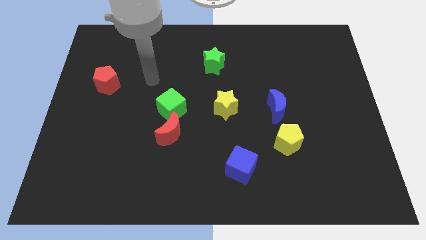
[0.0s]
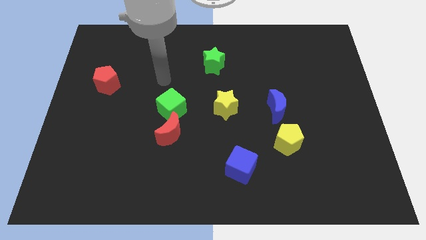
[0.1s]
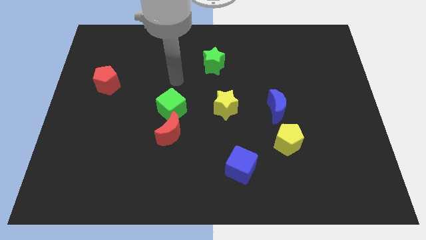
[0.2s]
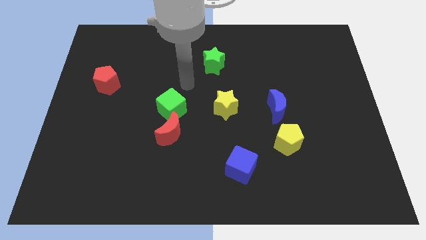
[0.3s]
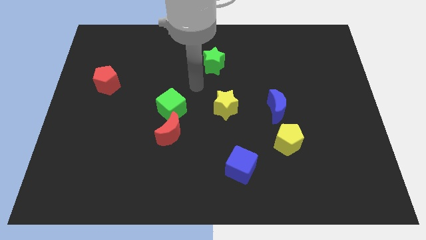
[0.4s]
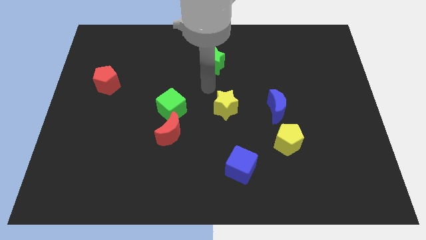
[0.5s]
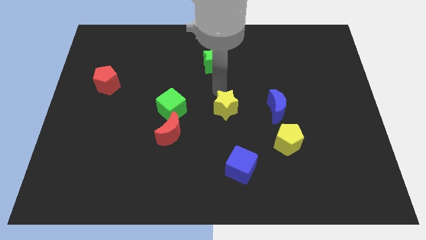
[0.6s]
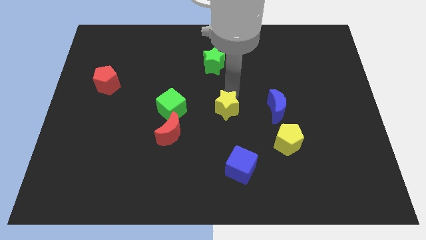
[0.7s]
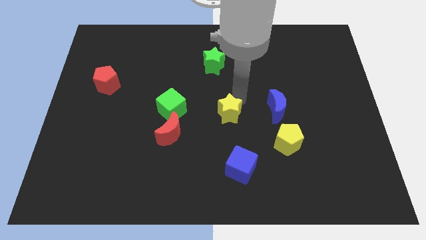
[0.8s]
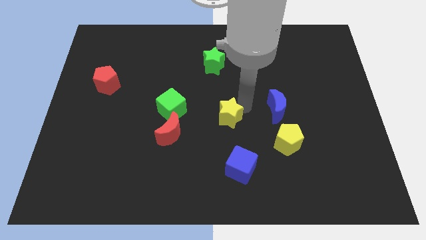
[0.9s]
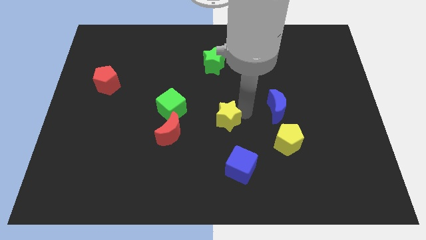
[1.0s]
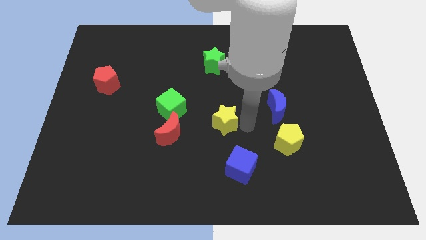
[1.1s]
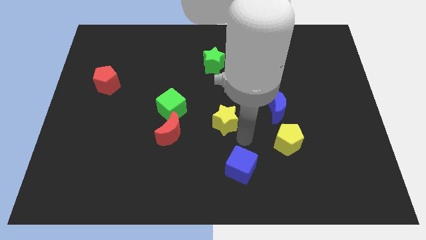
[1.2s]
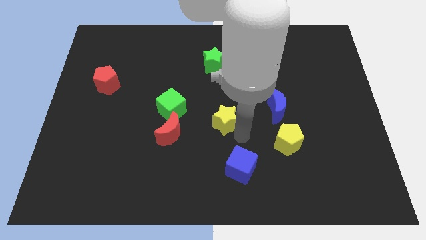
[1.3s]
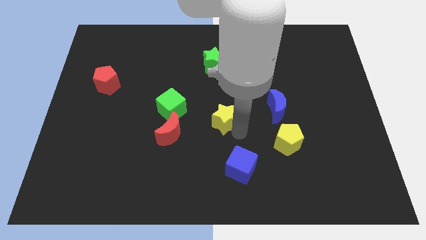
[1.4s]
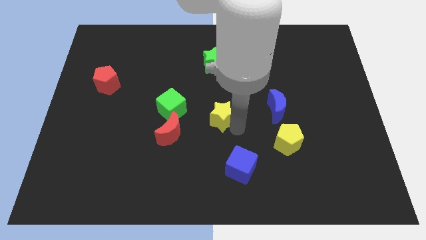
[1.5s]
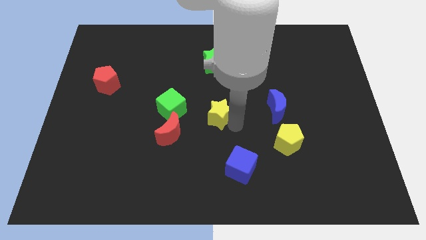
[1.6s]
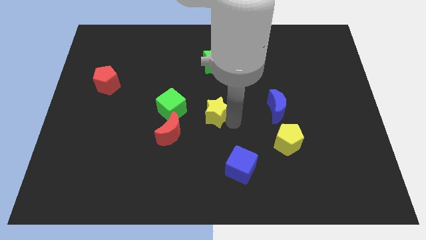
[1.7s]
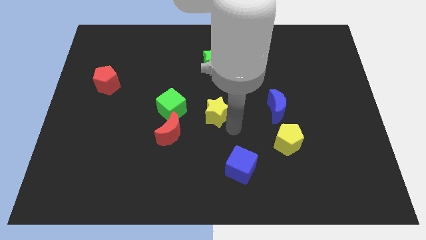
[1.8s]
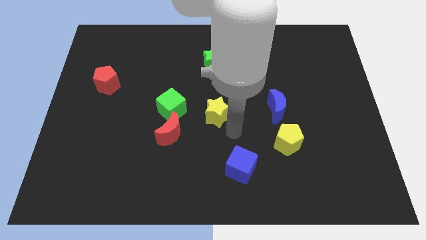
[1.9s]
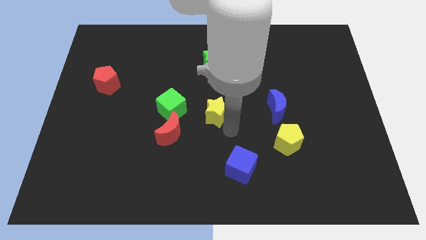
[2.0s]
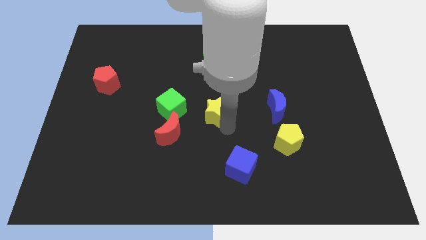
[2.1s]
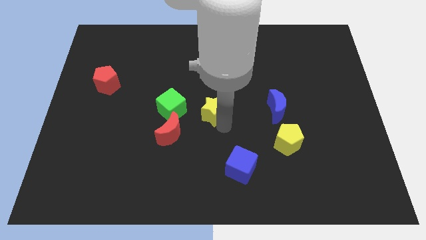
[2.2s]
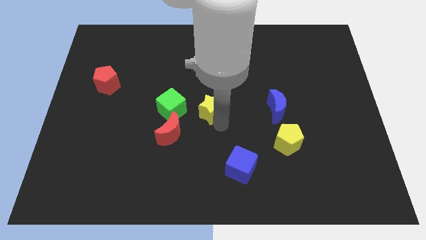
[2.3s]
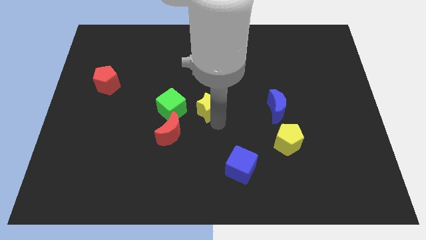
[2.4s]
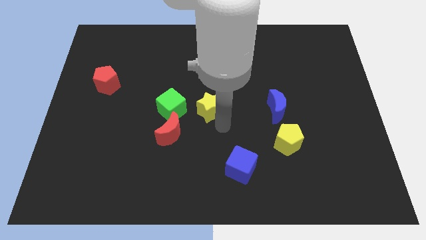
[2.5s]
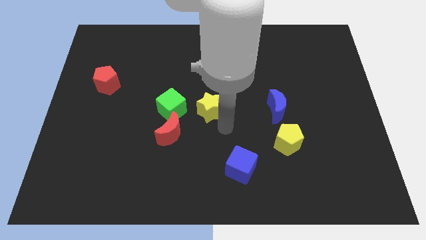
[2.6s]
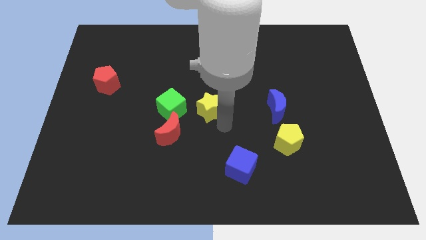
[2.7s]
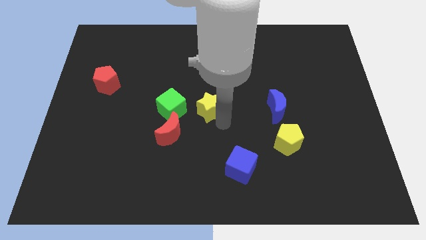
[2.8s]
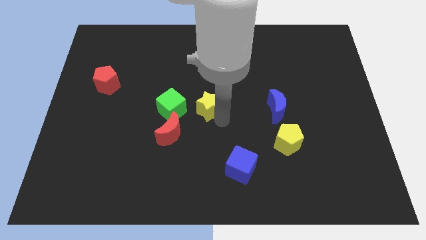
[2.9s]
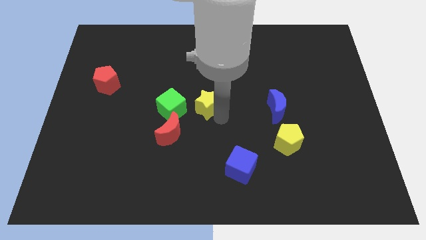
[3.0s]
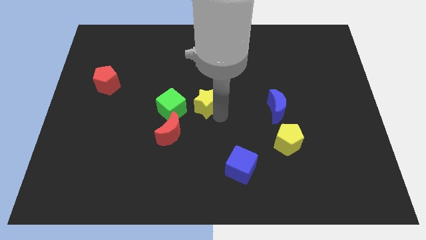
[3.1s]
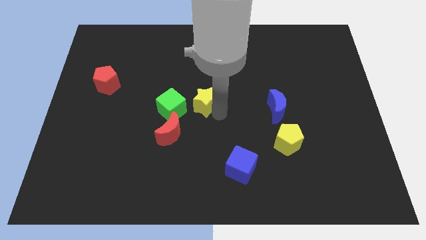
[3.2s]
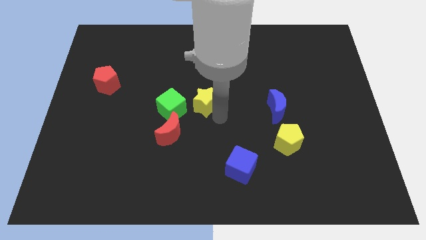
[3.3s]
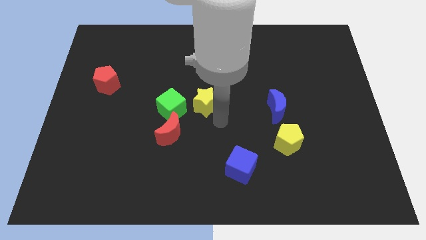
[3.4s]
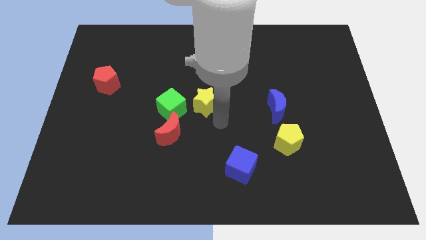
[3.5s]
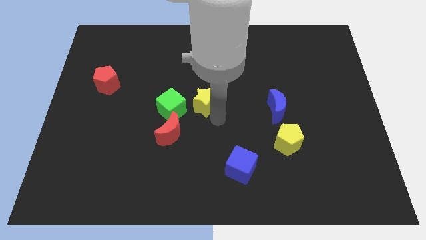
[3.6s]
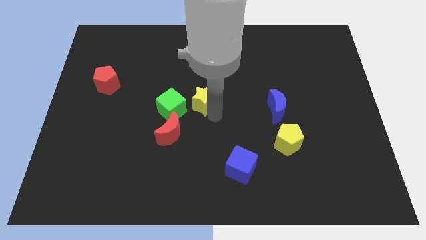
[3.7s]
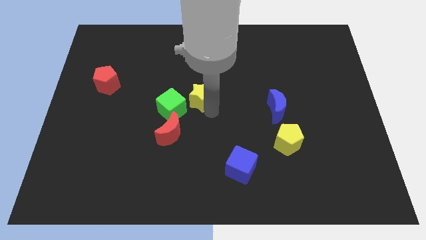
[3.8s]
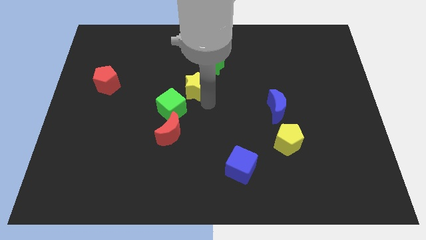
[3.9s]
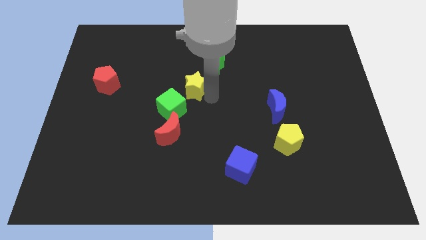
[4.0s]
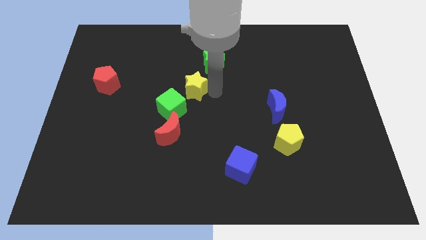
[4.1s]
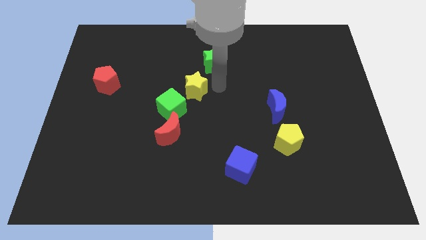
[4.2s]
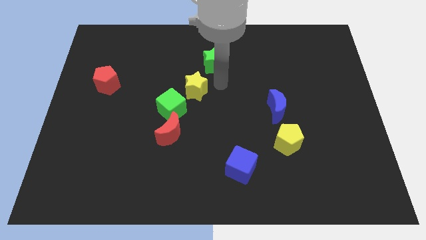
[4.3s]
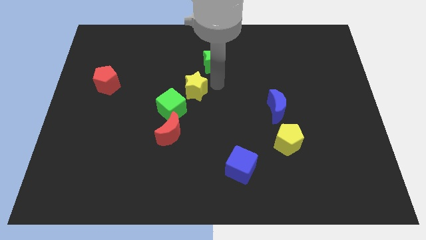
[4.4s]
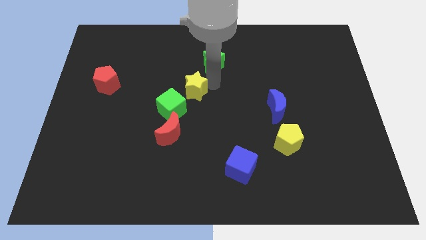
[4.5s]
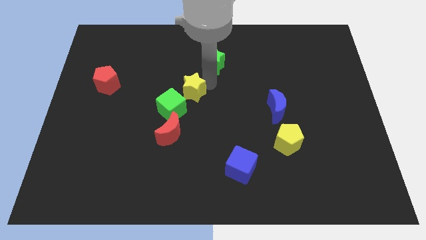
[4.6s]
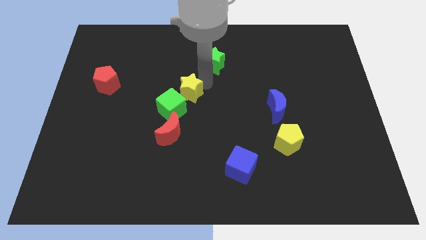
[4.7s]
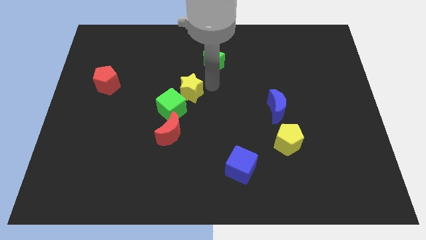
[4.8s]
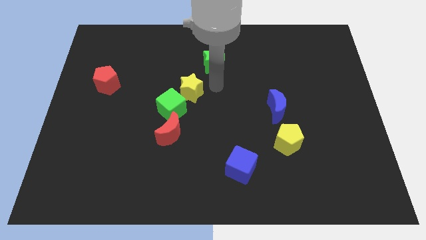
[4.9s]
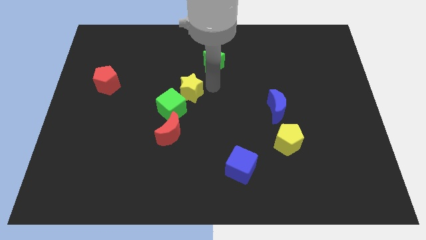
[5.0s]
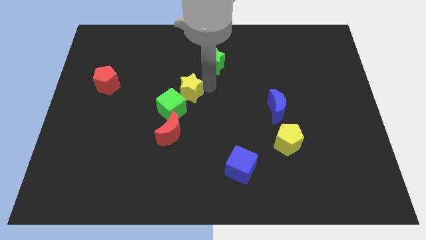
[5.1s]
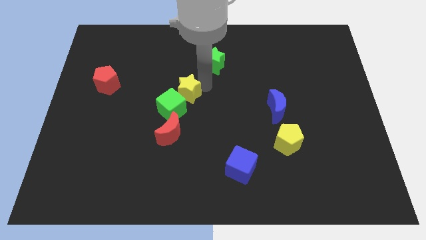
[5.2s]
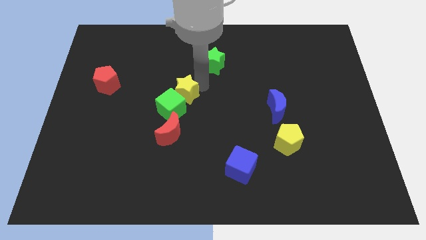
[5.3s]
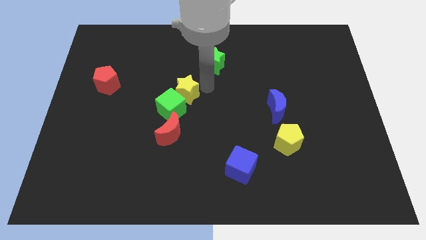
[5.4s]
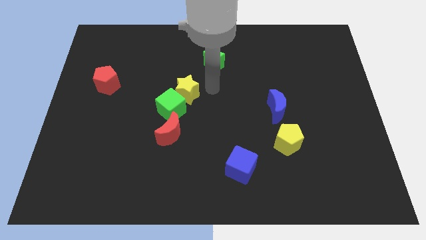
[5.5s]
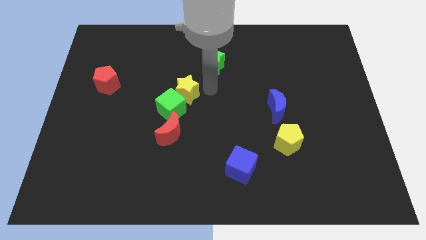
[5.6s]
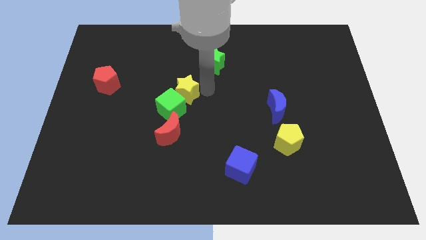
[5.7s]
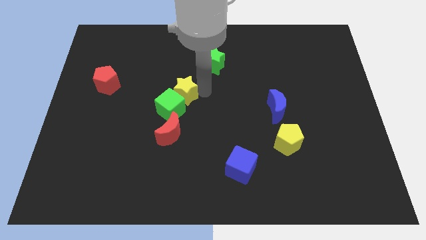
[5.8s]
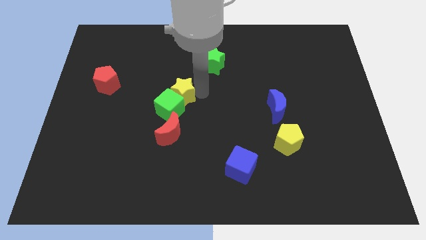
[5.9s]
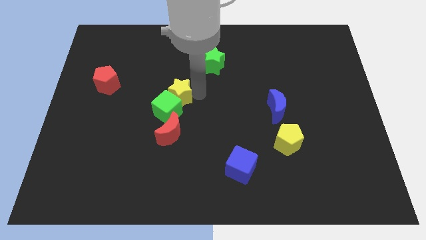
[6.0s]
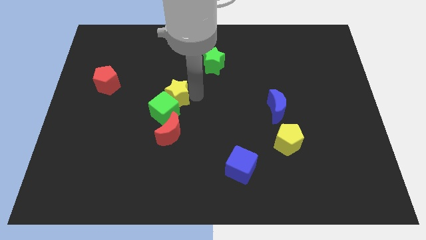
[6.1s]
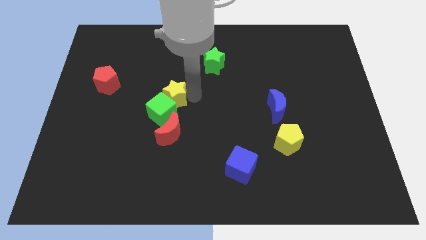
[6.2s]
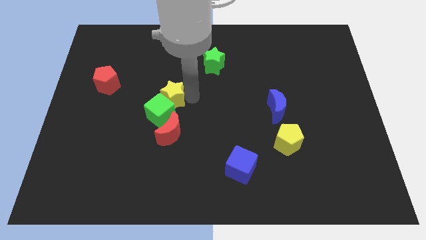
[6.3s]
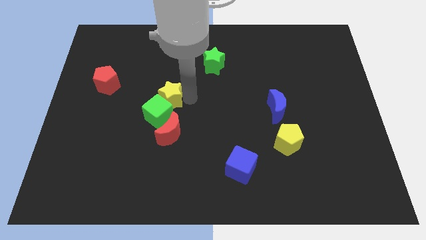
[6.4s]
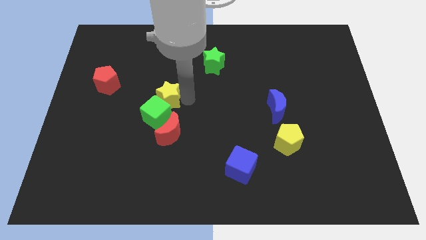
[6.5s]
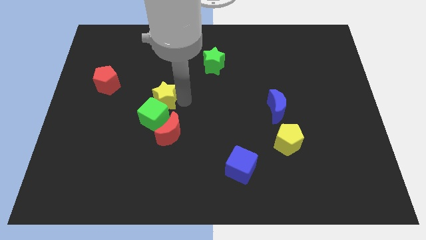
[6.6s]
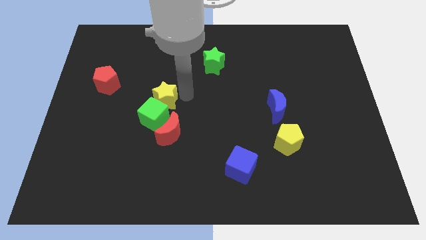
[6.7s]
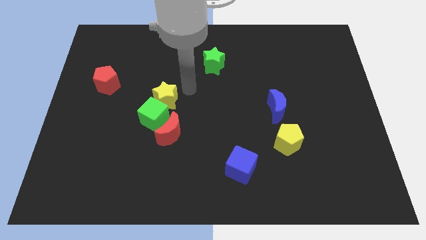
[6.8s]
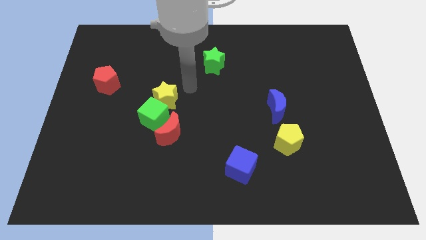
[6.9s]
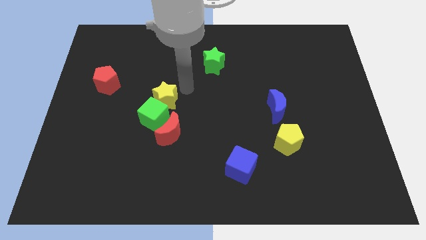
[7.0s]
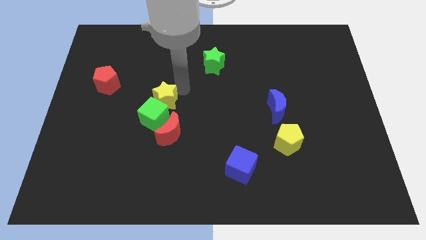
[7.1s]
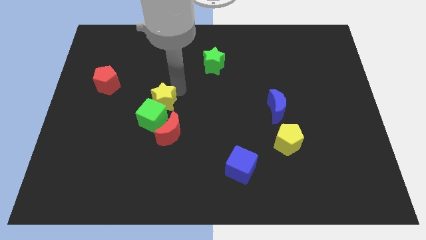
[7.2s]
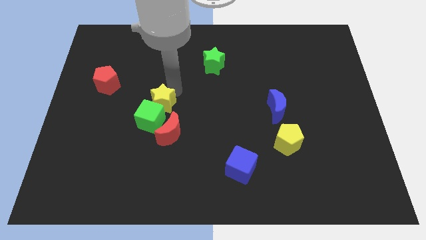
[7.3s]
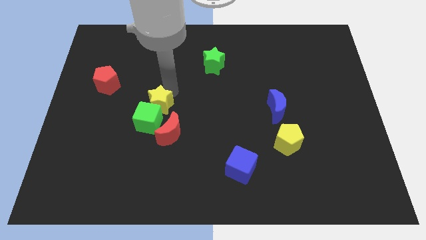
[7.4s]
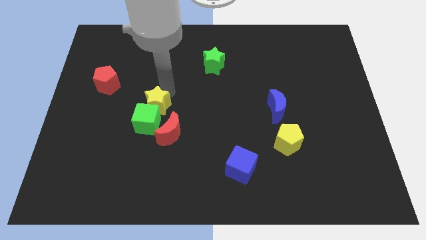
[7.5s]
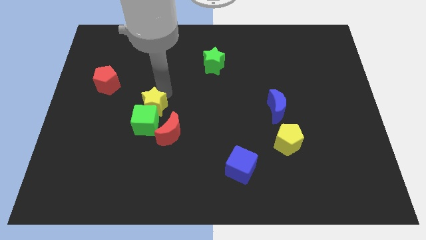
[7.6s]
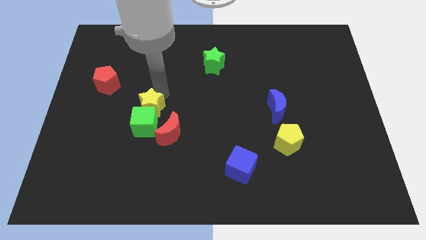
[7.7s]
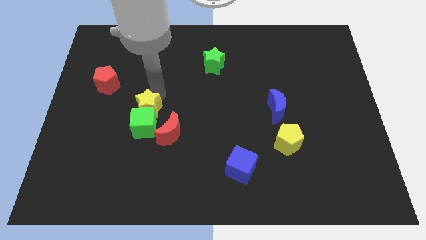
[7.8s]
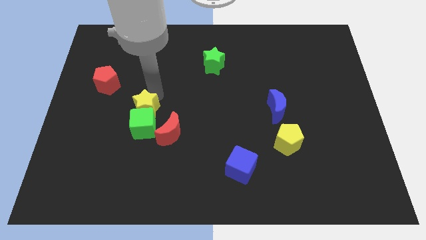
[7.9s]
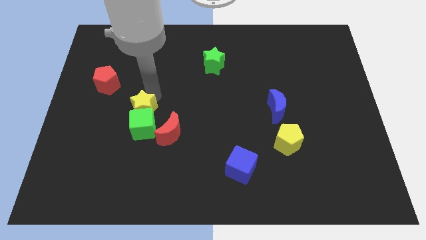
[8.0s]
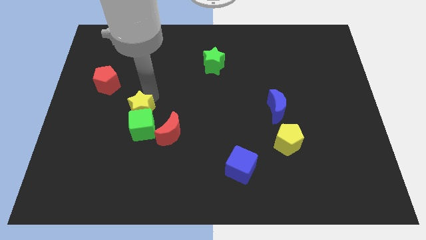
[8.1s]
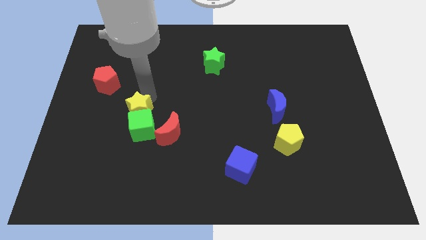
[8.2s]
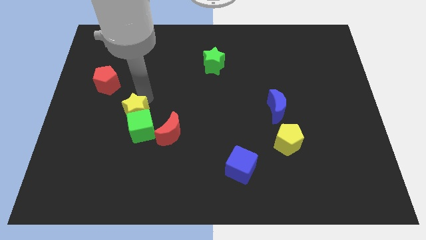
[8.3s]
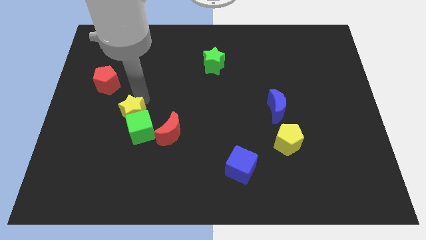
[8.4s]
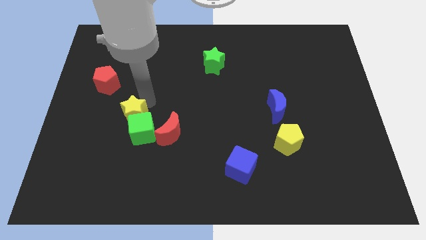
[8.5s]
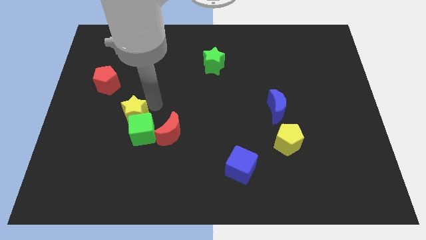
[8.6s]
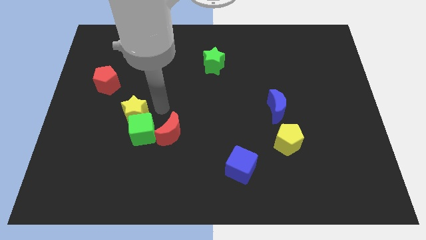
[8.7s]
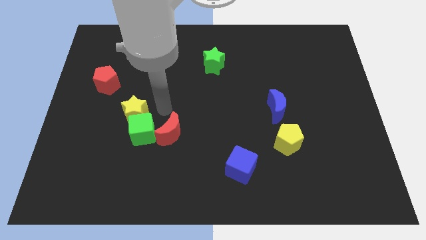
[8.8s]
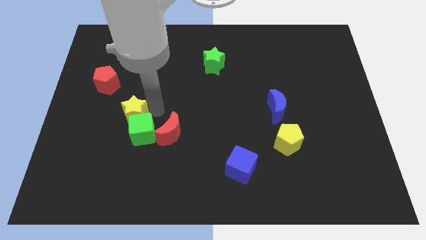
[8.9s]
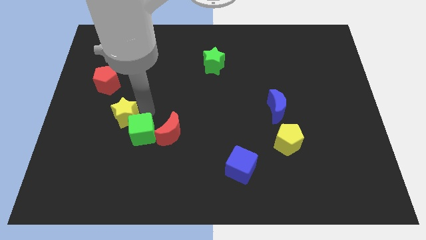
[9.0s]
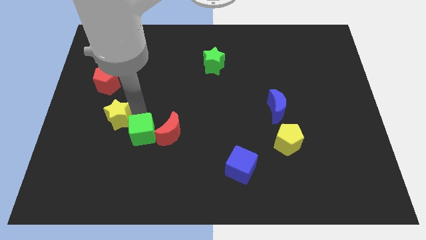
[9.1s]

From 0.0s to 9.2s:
push the yellow star below the red pentagon
